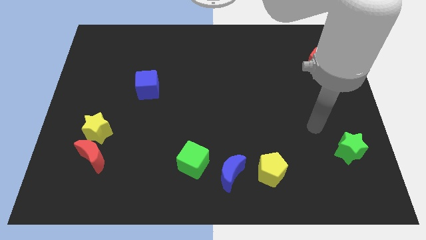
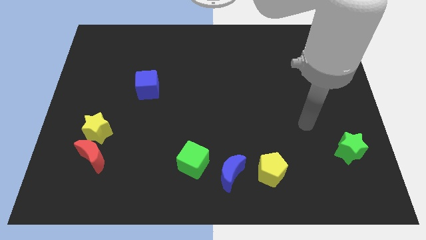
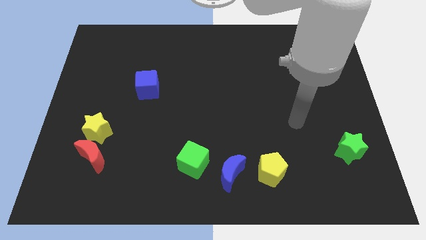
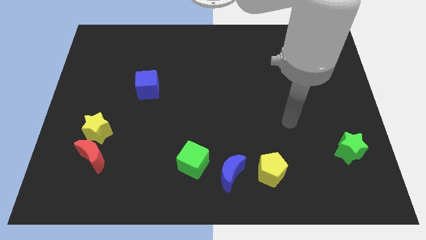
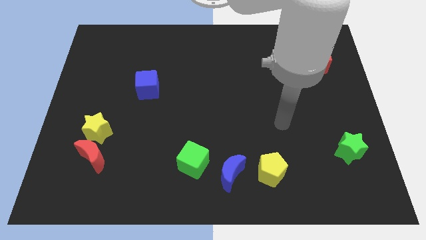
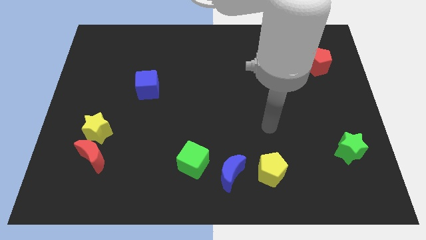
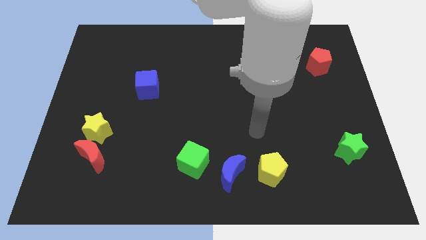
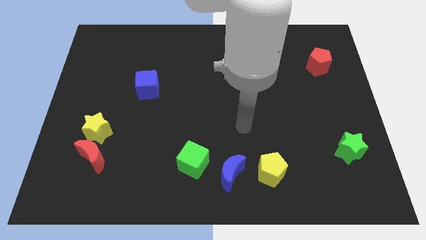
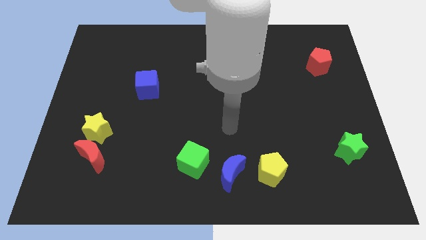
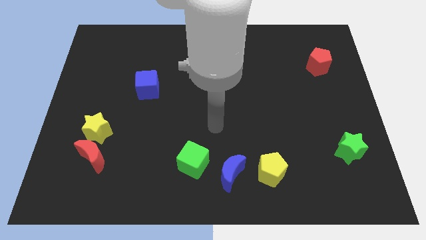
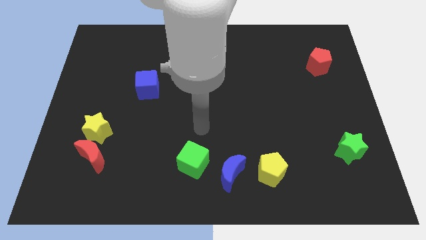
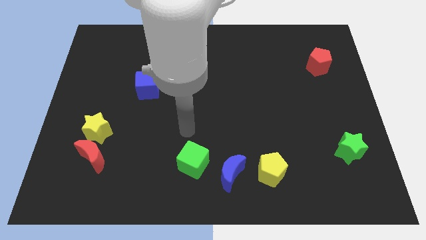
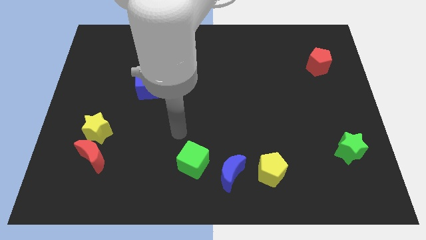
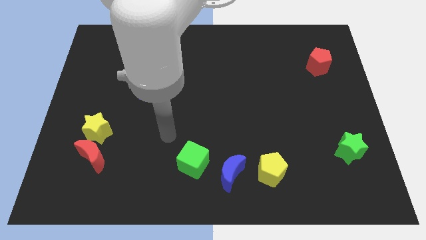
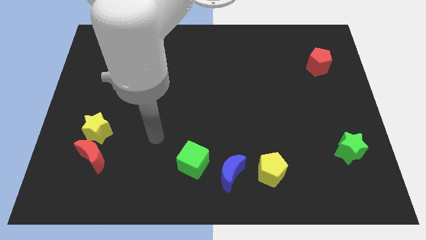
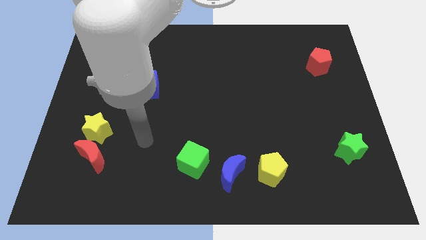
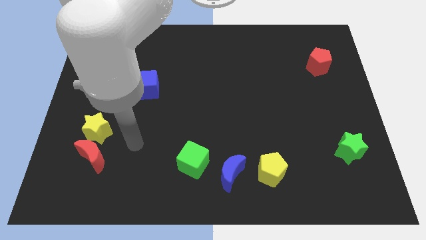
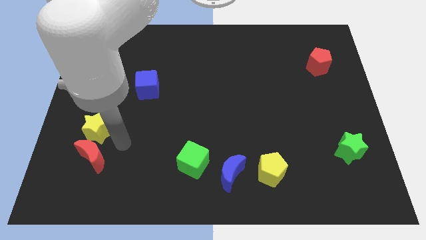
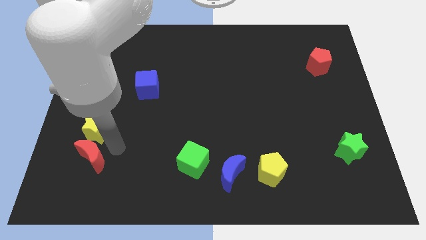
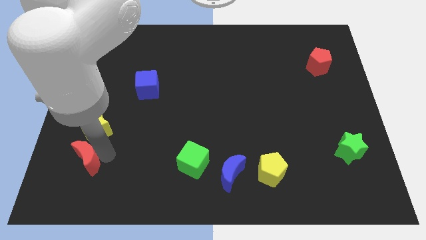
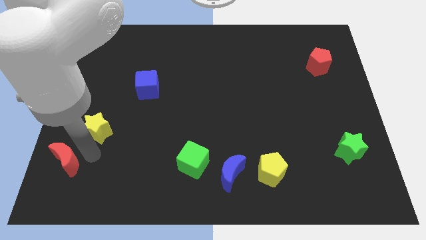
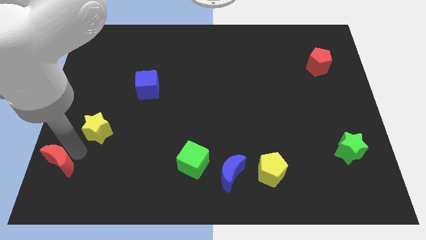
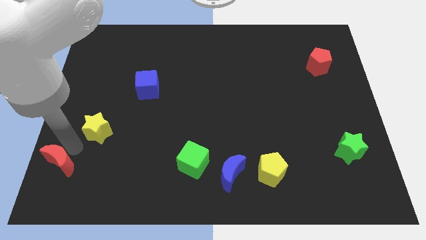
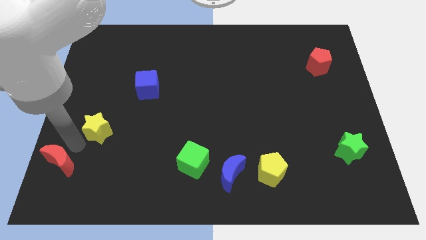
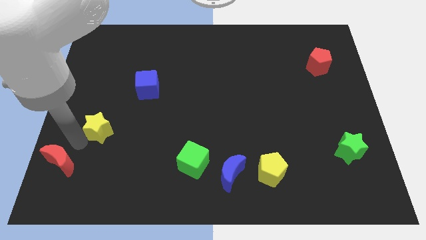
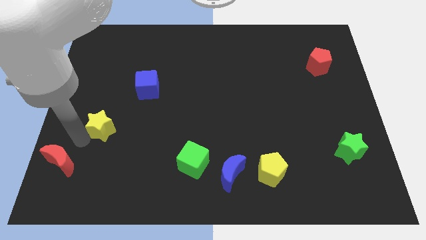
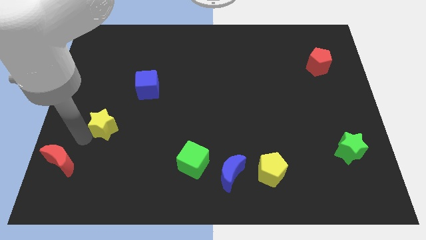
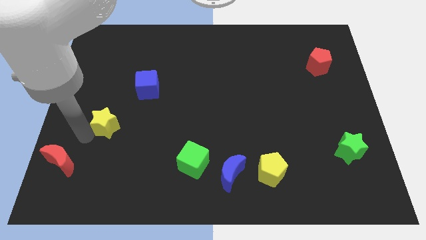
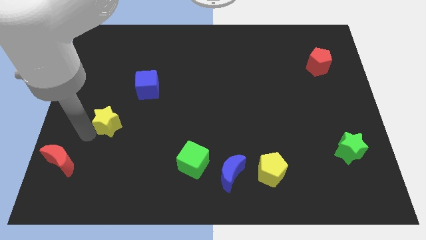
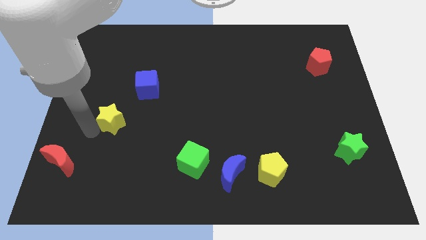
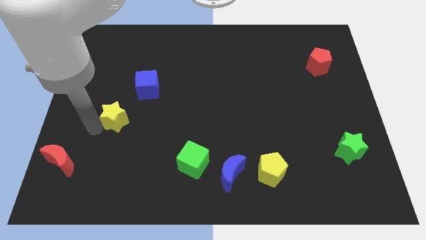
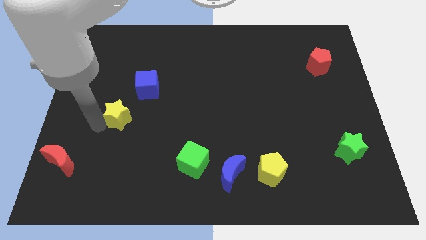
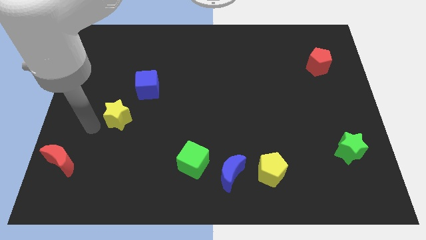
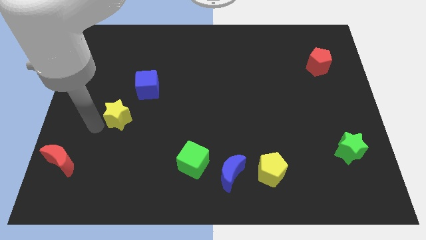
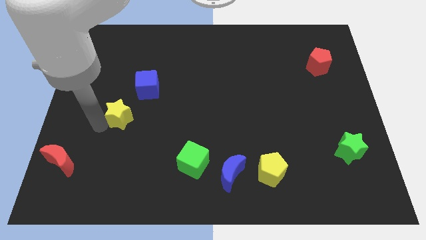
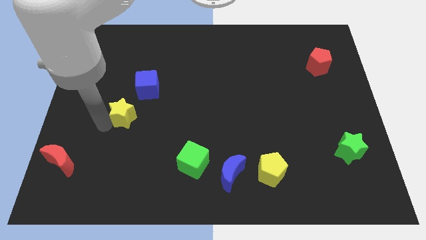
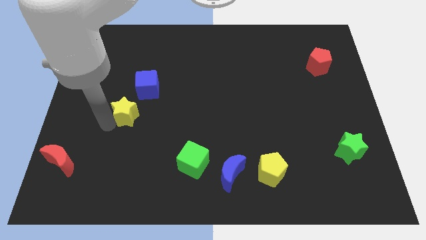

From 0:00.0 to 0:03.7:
slightly move the yellow star diagonally up and to the right

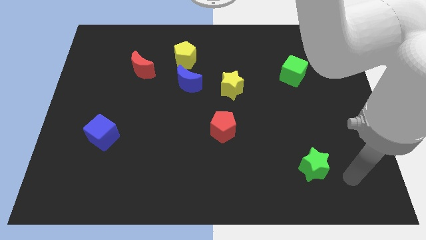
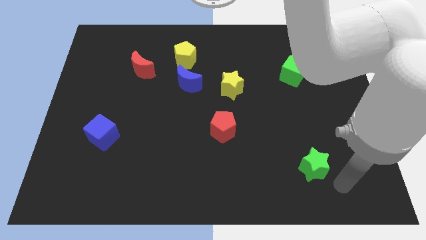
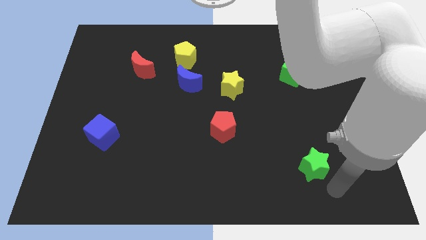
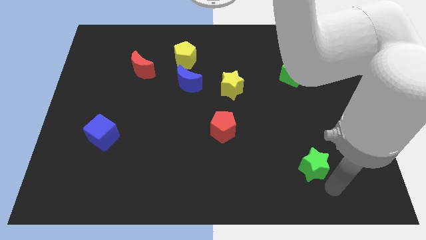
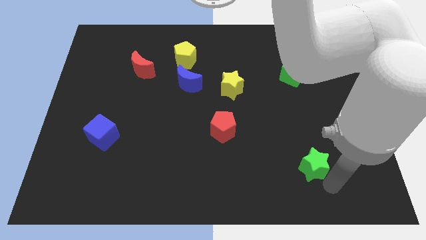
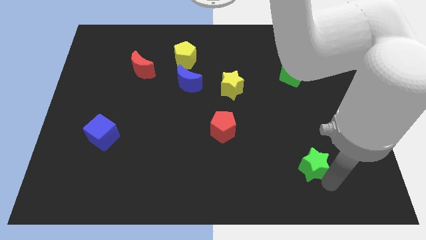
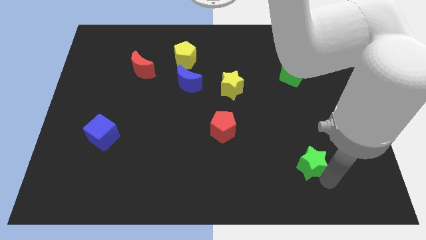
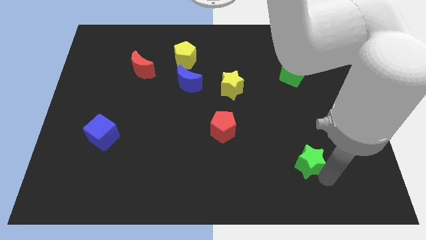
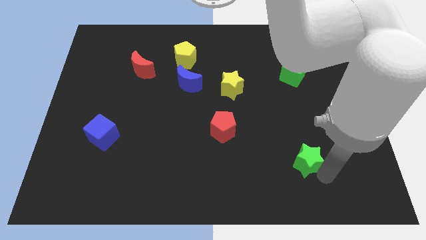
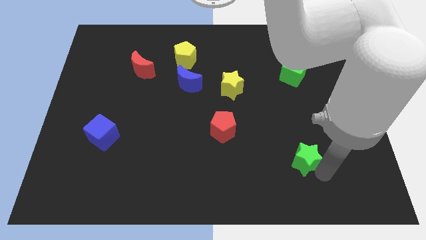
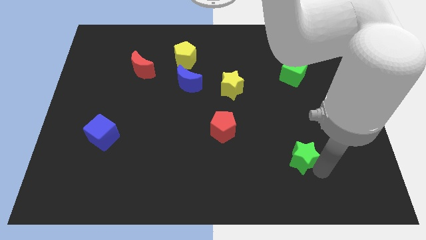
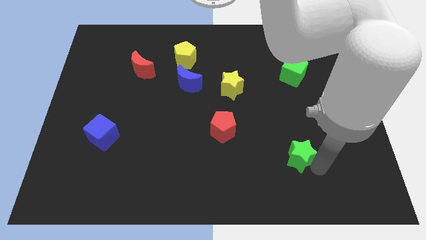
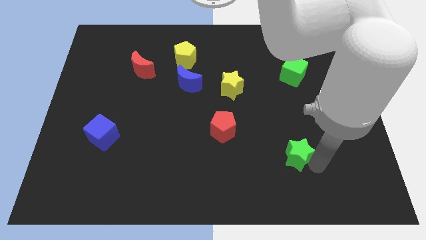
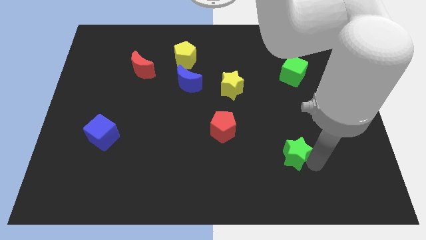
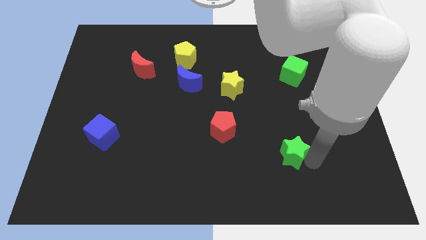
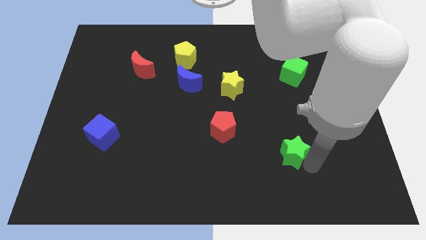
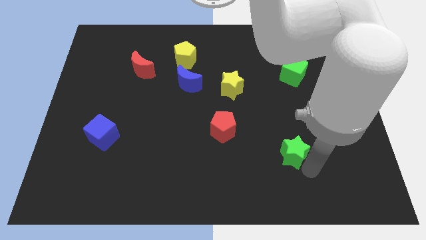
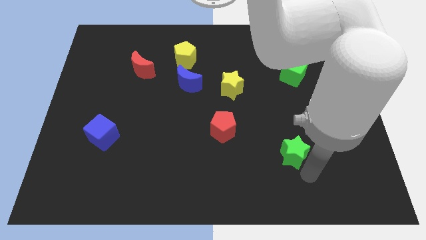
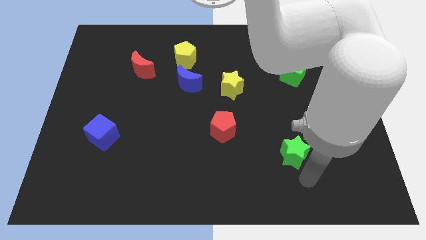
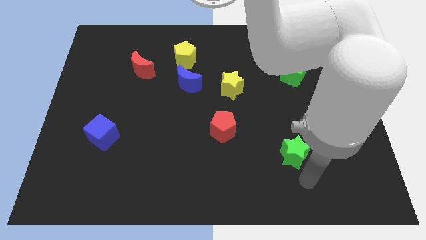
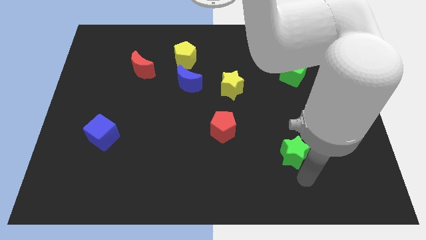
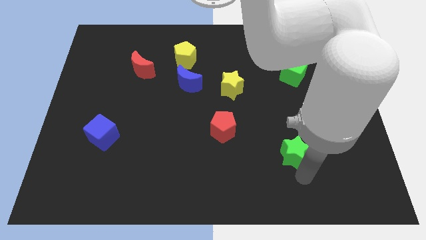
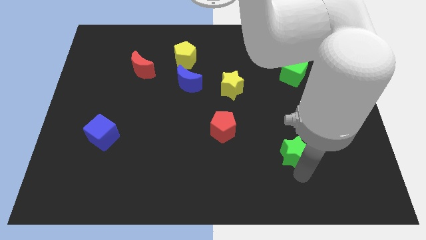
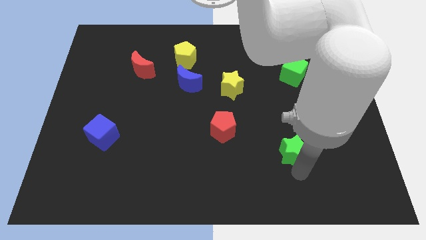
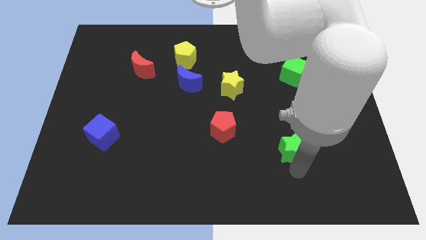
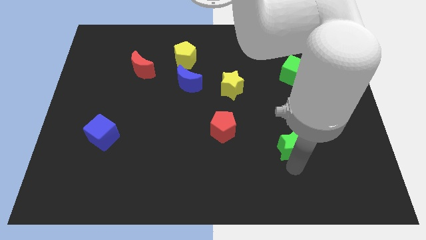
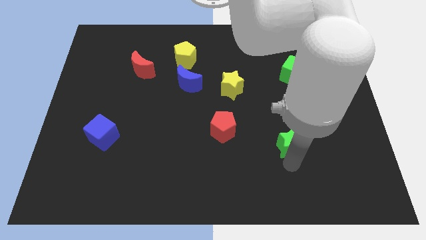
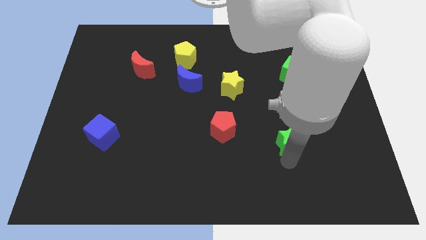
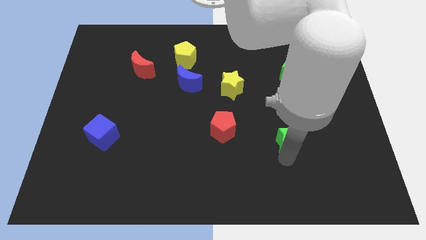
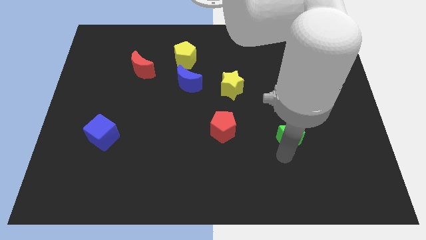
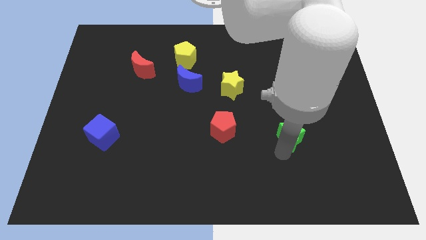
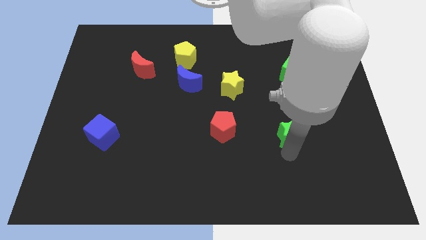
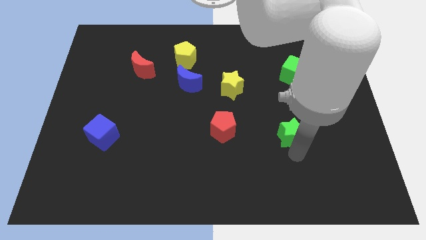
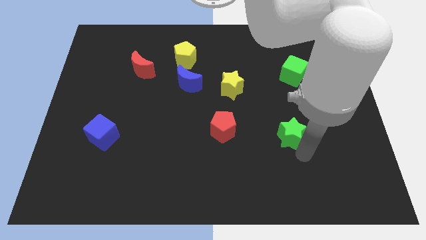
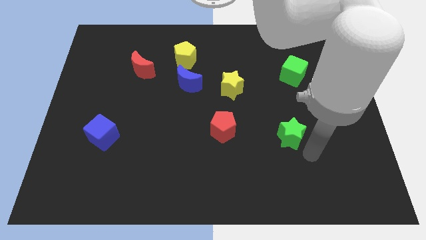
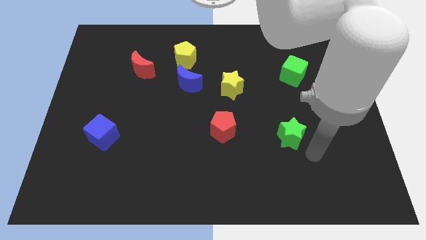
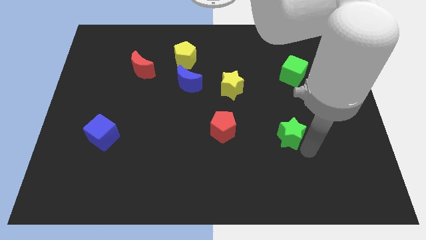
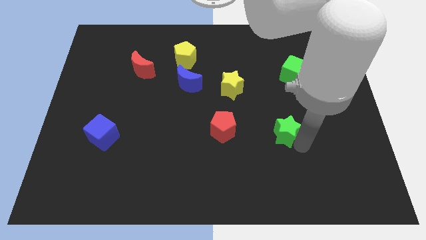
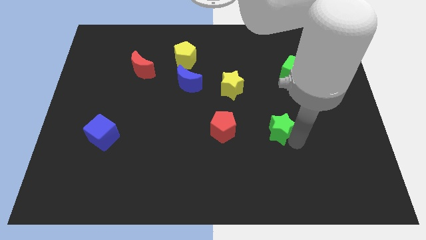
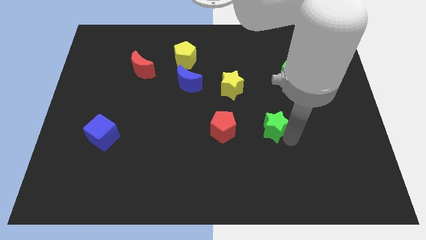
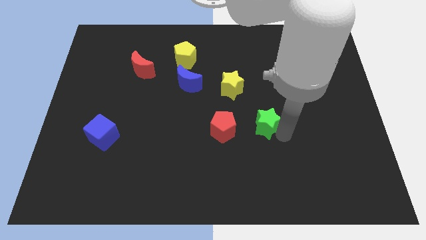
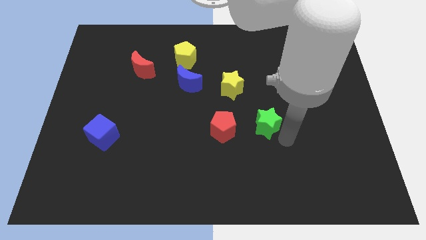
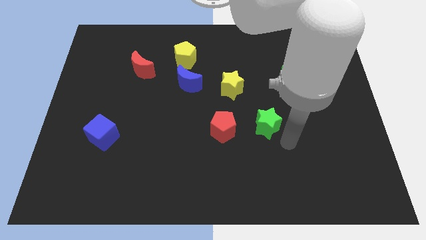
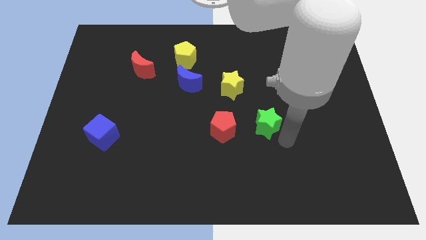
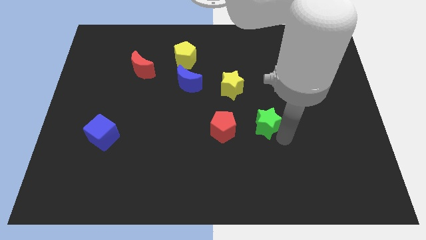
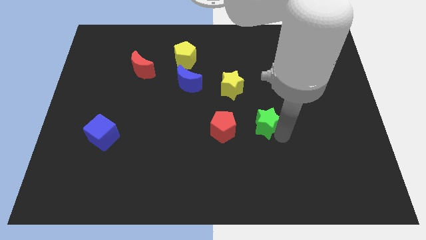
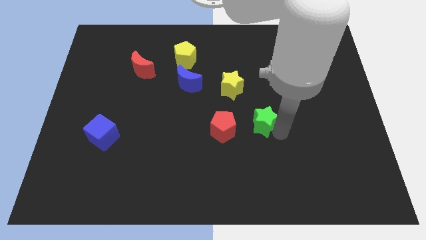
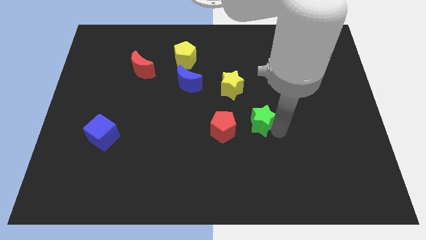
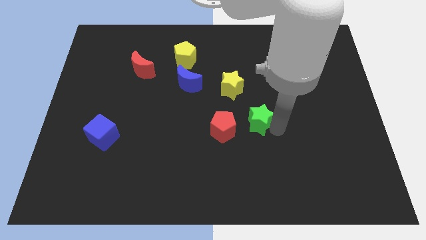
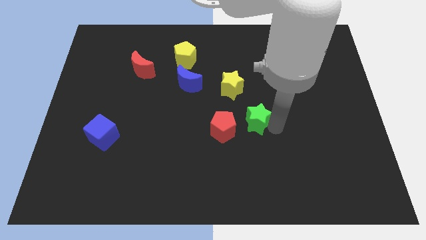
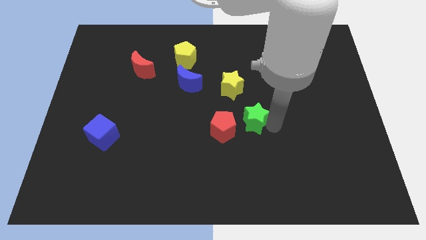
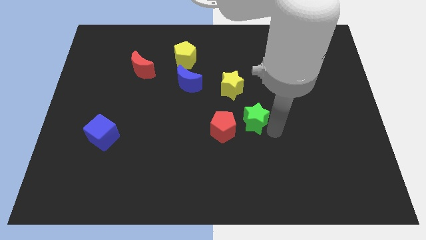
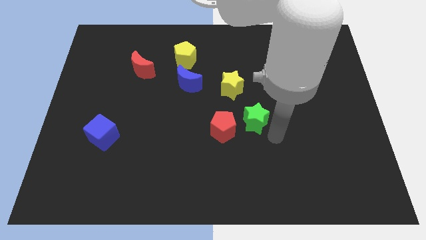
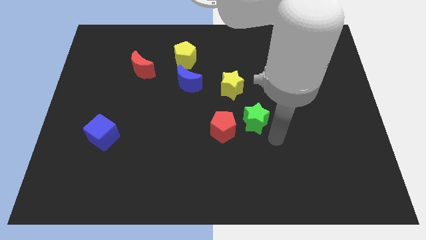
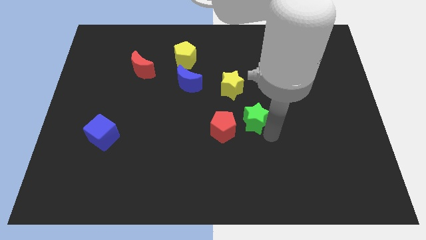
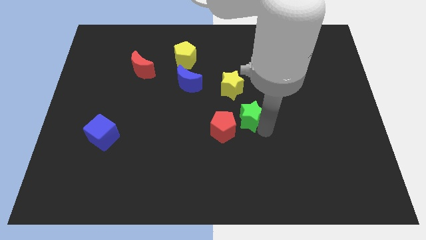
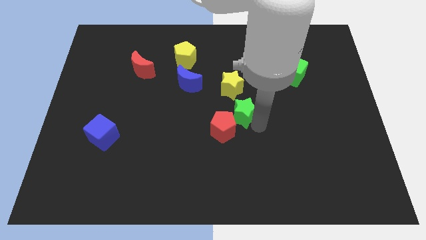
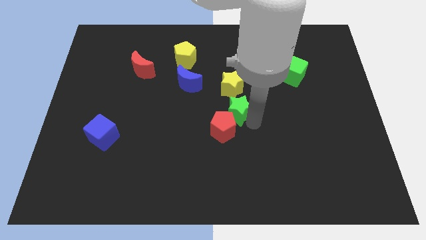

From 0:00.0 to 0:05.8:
push the green star diagonally upwards and to the left
